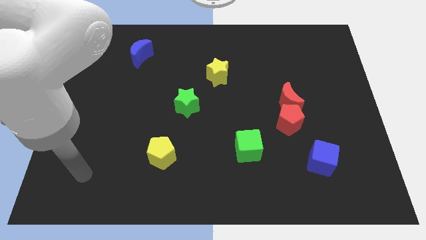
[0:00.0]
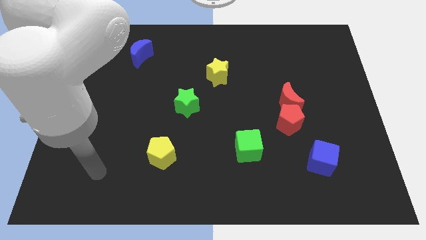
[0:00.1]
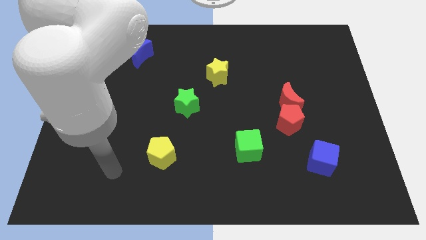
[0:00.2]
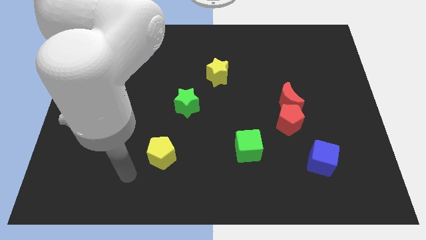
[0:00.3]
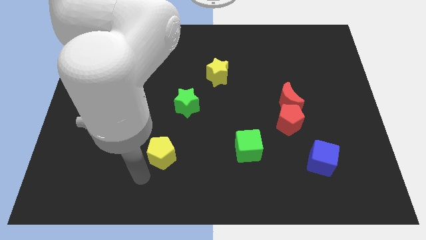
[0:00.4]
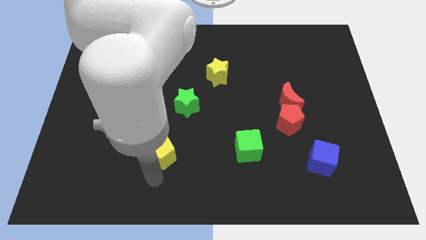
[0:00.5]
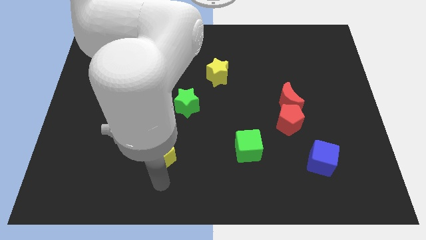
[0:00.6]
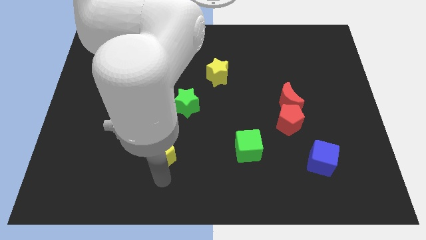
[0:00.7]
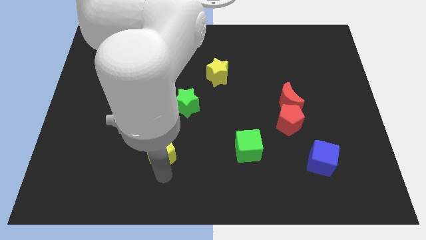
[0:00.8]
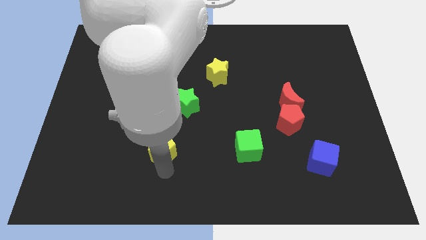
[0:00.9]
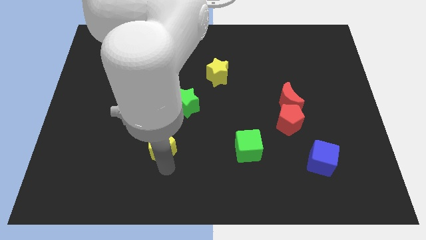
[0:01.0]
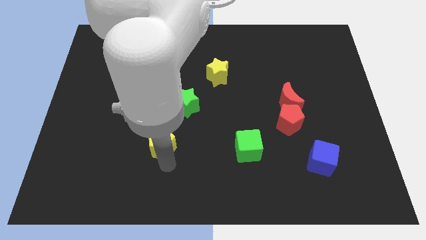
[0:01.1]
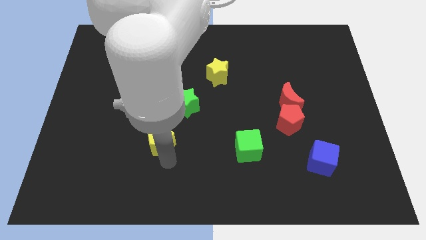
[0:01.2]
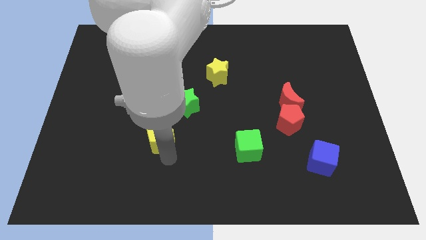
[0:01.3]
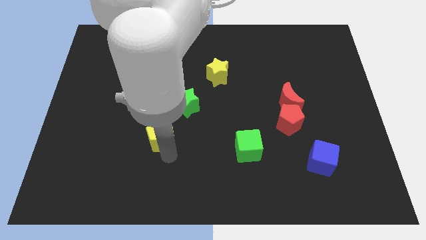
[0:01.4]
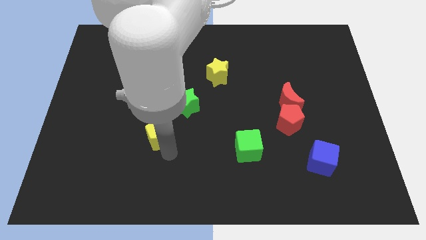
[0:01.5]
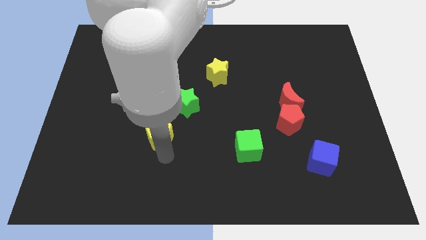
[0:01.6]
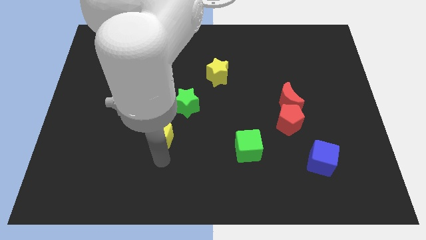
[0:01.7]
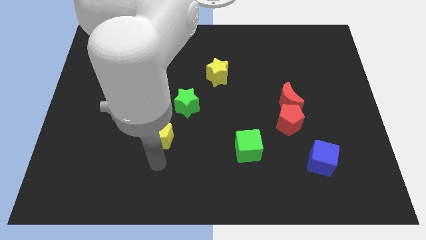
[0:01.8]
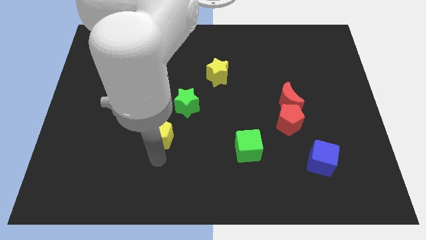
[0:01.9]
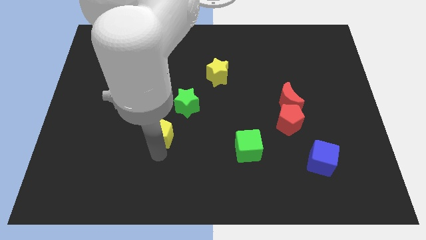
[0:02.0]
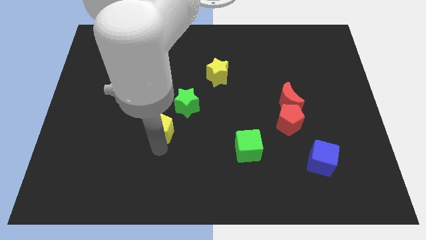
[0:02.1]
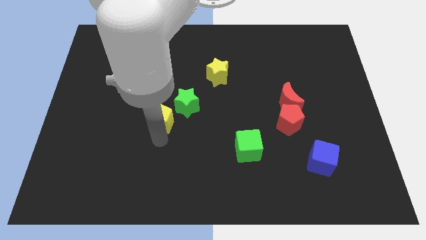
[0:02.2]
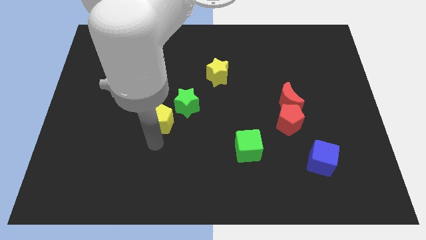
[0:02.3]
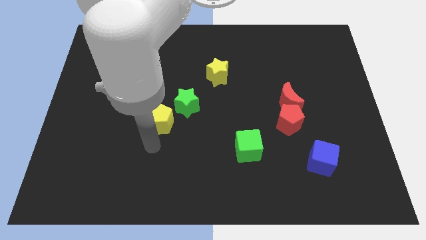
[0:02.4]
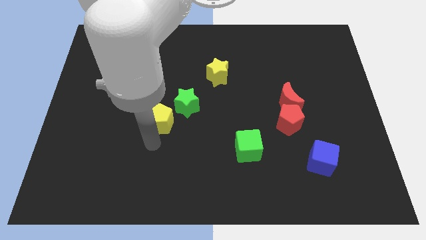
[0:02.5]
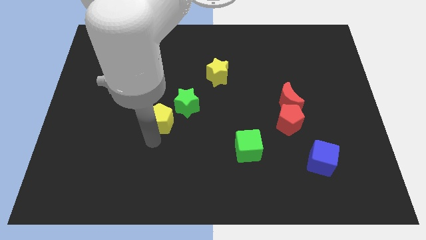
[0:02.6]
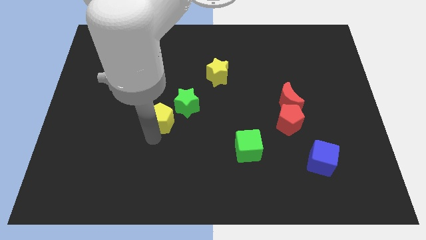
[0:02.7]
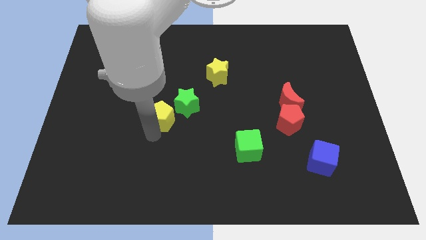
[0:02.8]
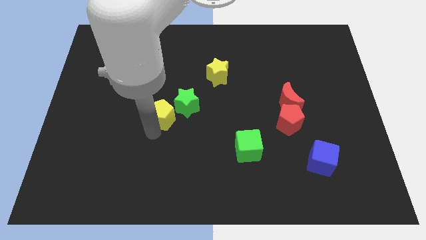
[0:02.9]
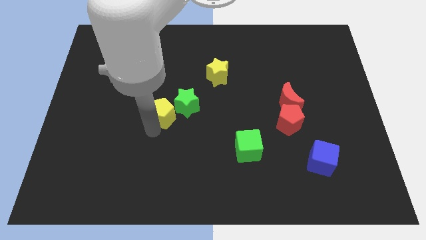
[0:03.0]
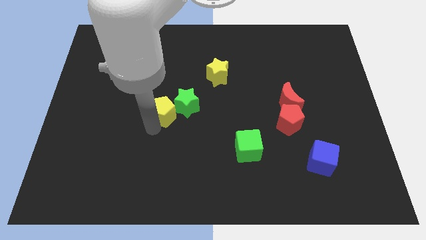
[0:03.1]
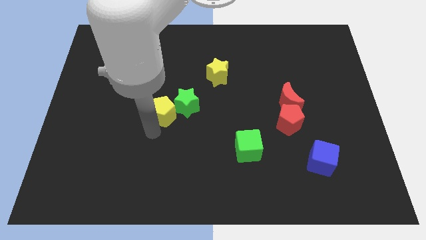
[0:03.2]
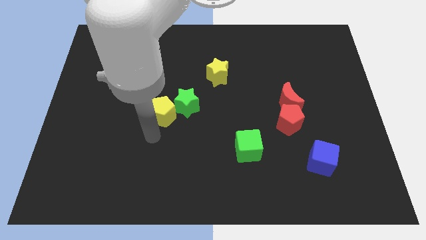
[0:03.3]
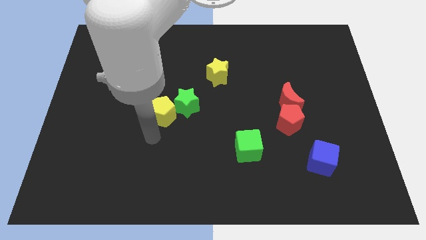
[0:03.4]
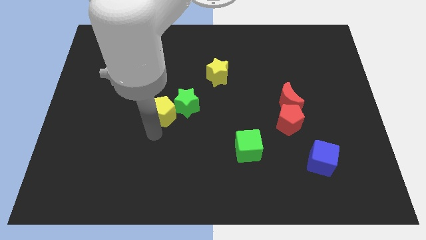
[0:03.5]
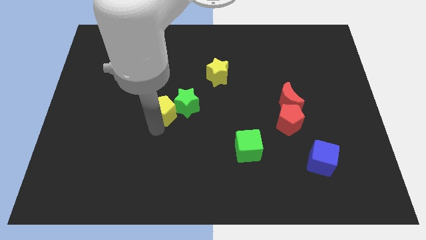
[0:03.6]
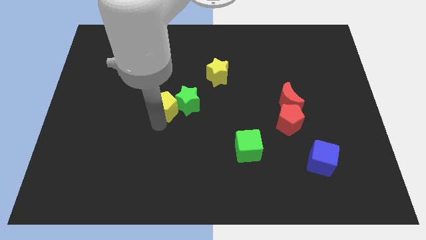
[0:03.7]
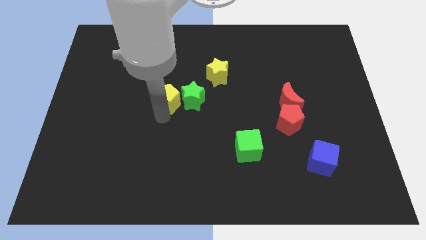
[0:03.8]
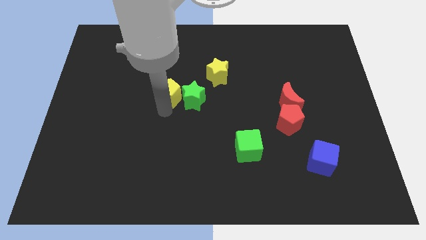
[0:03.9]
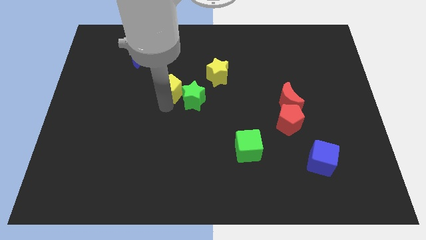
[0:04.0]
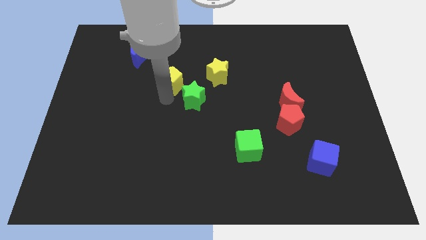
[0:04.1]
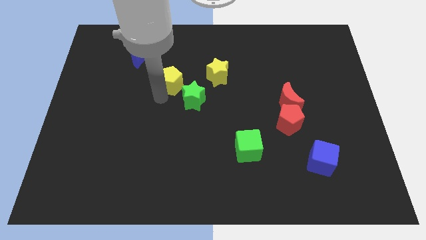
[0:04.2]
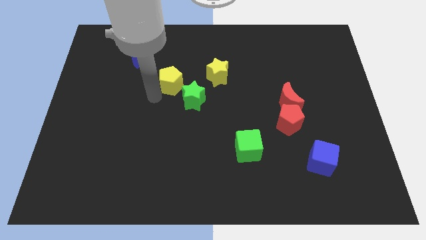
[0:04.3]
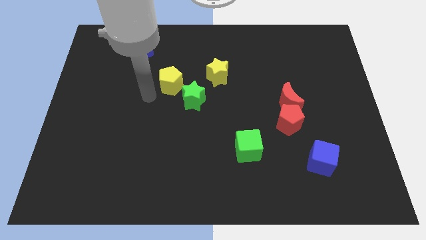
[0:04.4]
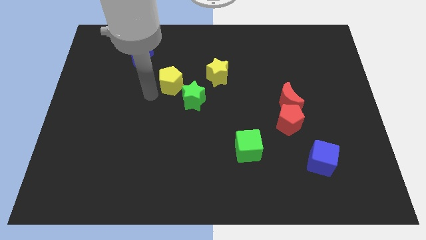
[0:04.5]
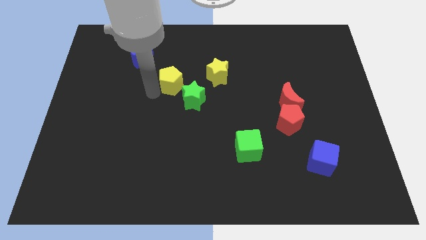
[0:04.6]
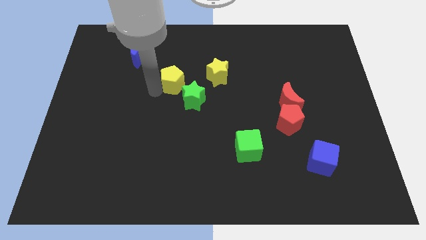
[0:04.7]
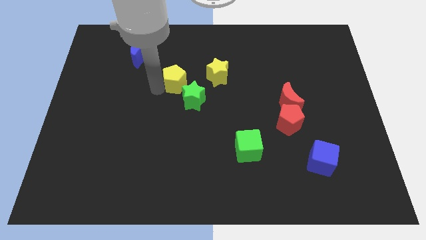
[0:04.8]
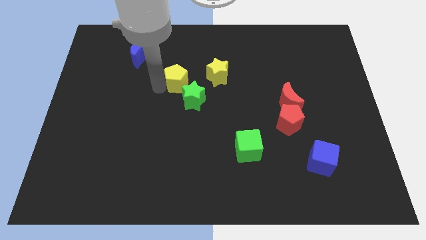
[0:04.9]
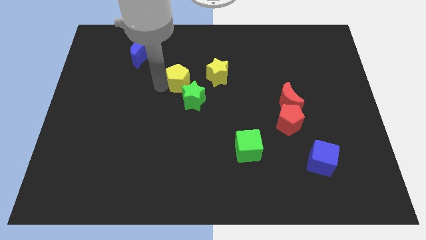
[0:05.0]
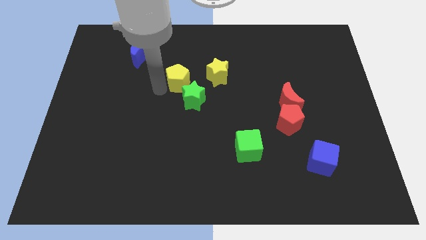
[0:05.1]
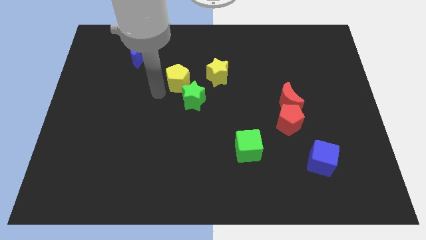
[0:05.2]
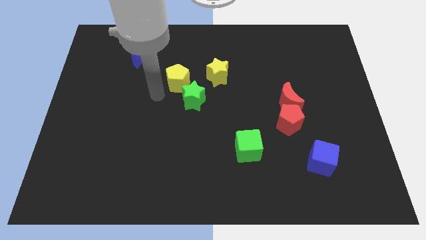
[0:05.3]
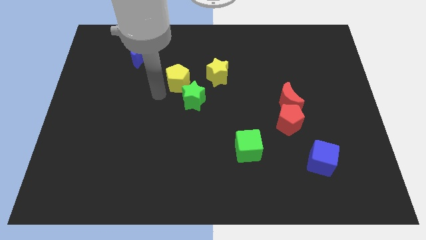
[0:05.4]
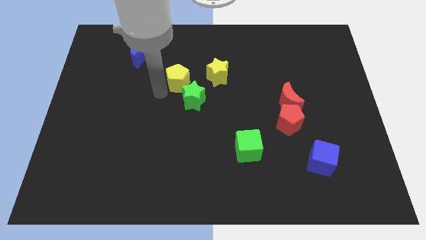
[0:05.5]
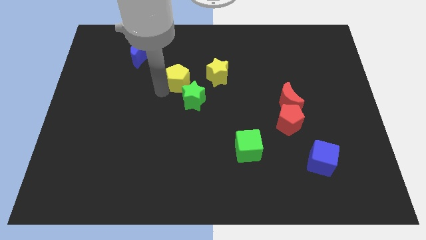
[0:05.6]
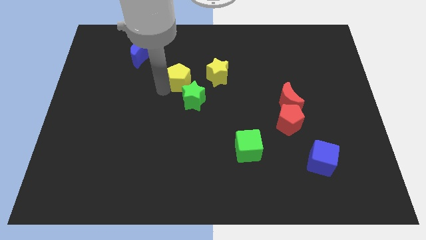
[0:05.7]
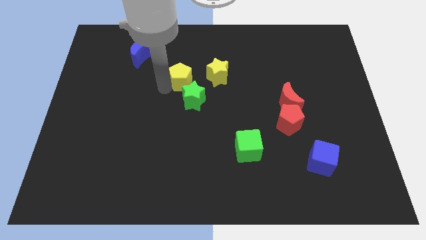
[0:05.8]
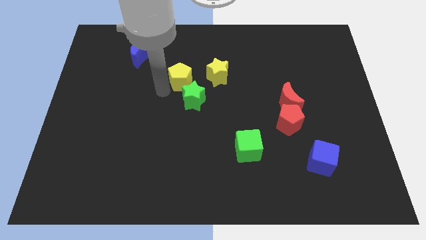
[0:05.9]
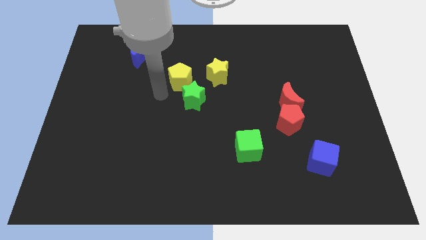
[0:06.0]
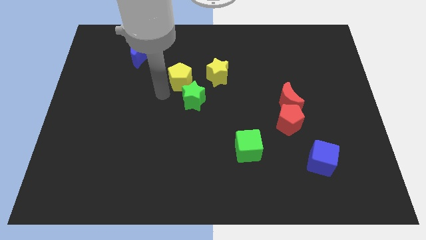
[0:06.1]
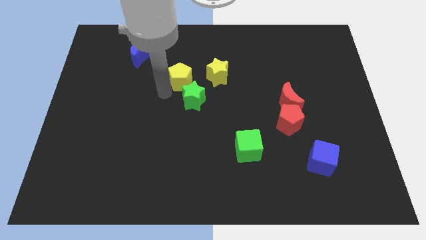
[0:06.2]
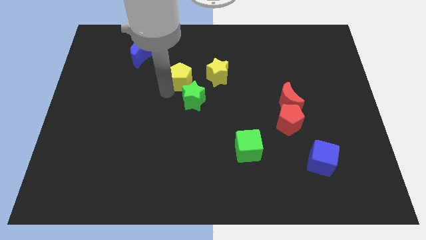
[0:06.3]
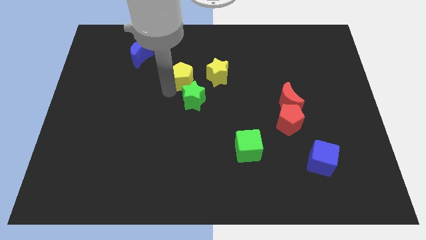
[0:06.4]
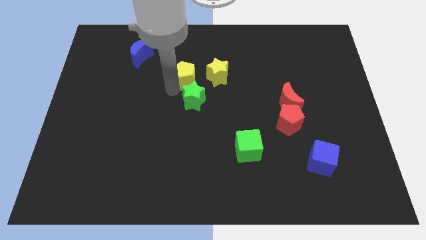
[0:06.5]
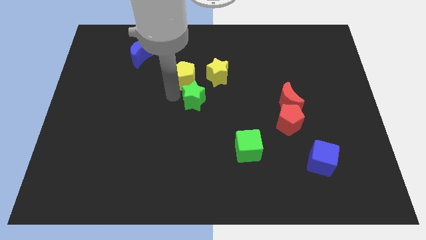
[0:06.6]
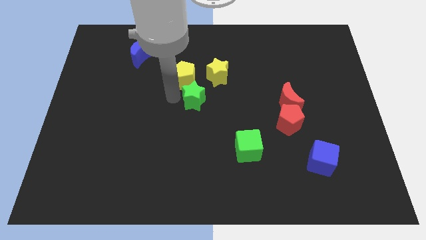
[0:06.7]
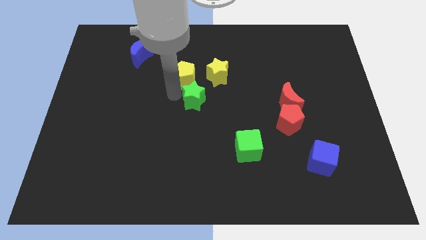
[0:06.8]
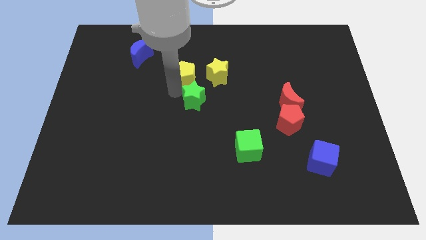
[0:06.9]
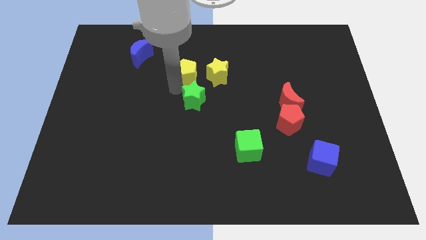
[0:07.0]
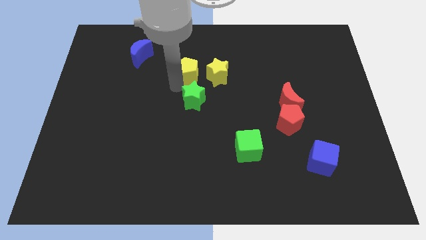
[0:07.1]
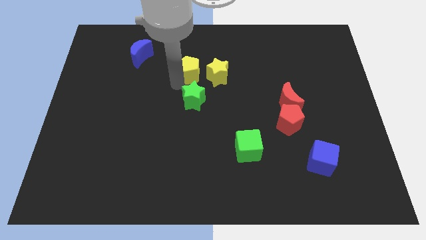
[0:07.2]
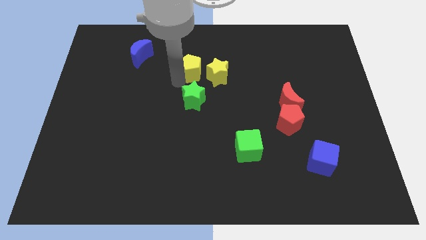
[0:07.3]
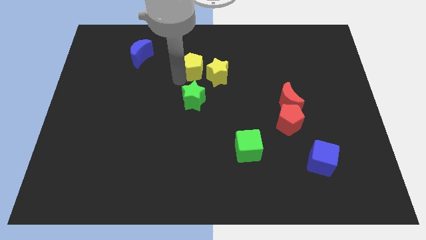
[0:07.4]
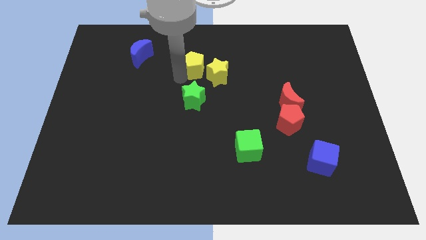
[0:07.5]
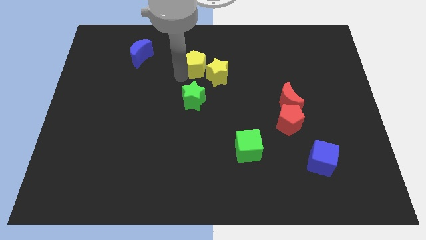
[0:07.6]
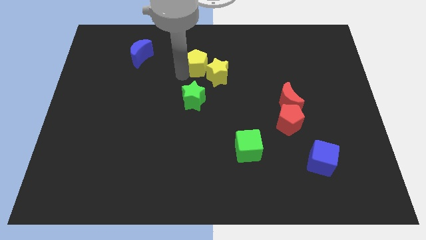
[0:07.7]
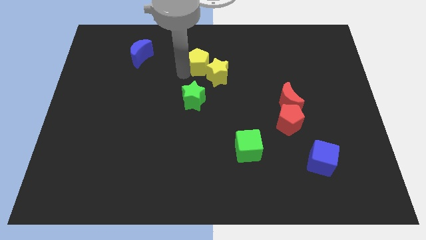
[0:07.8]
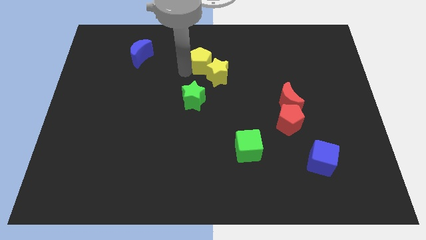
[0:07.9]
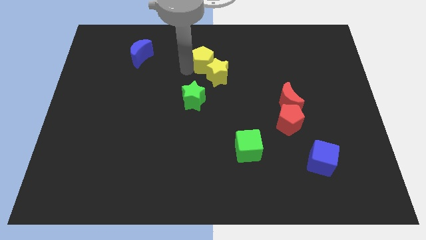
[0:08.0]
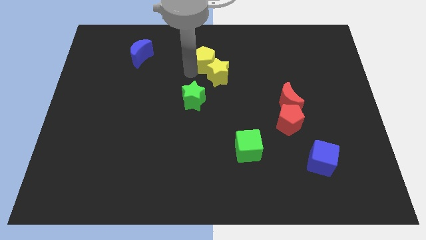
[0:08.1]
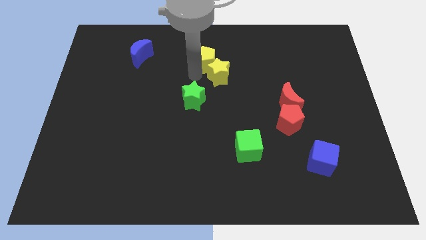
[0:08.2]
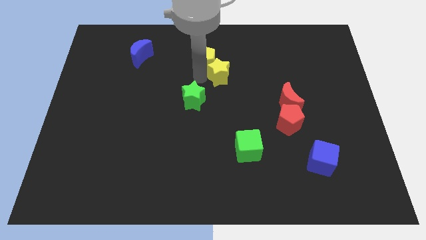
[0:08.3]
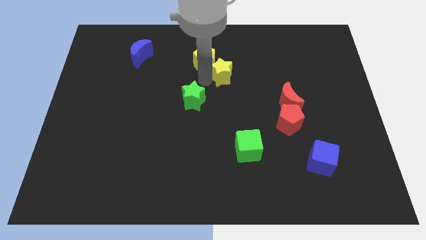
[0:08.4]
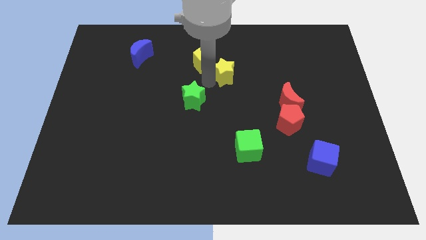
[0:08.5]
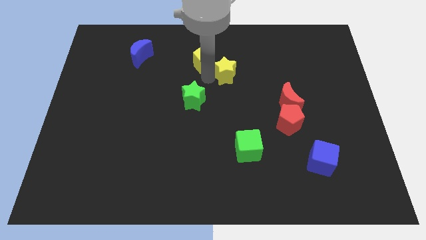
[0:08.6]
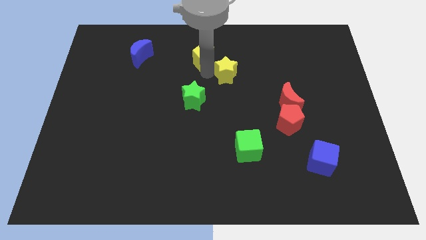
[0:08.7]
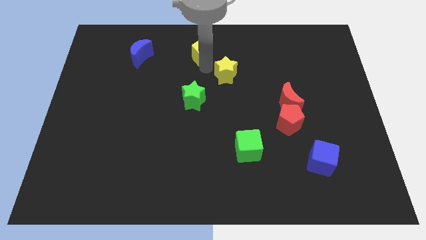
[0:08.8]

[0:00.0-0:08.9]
push the yellow pentagon to the towards your base
